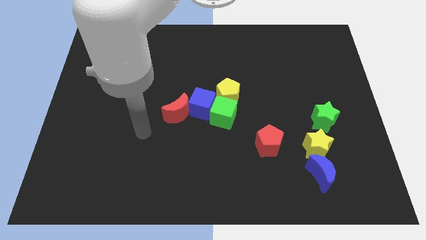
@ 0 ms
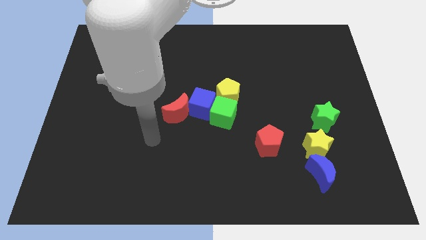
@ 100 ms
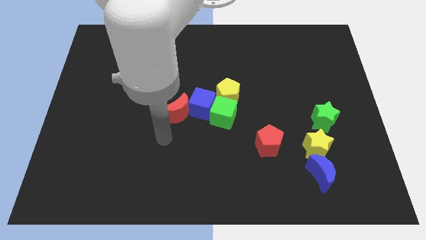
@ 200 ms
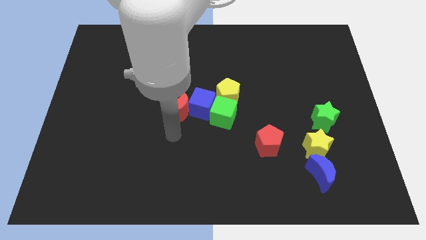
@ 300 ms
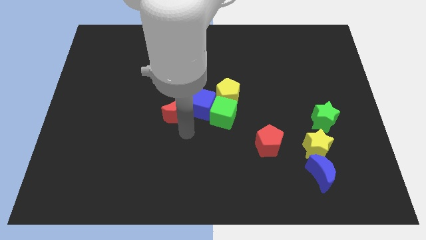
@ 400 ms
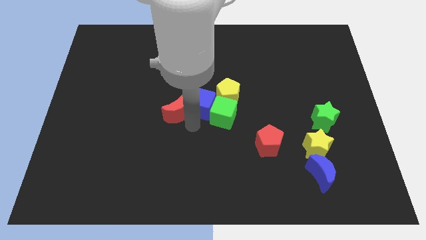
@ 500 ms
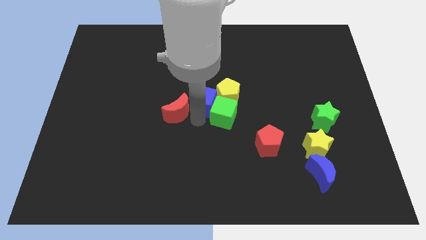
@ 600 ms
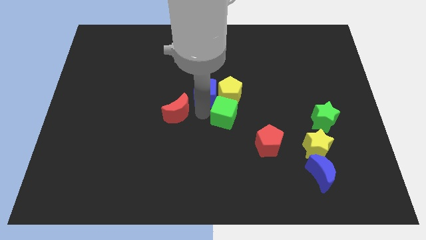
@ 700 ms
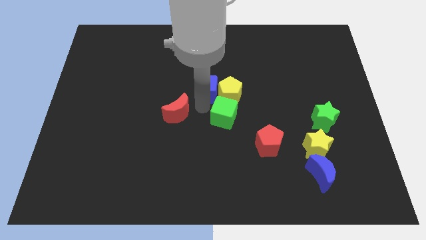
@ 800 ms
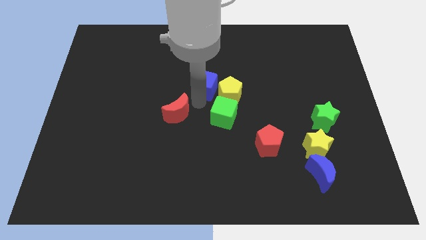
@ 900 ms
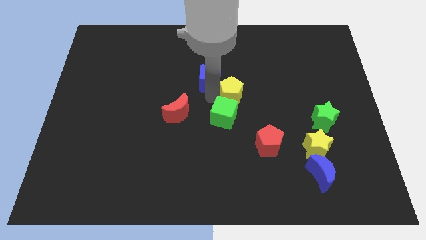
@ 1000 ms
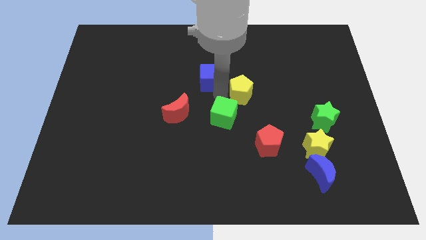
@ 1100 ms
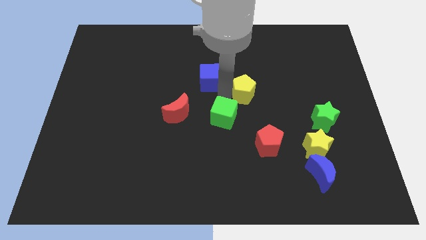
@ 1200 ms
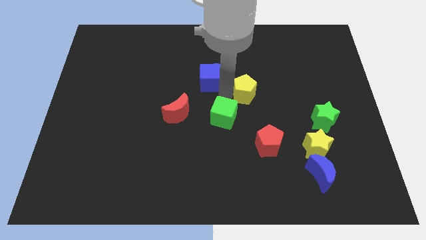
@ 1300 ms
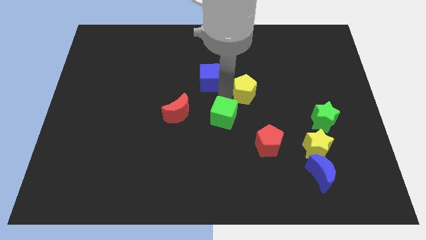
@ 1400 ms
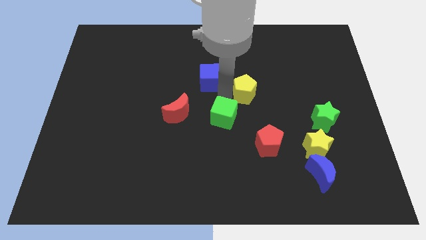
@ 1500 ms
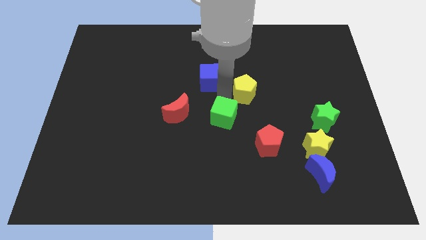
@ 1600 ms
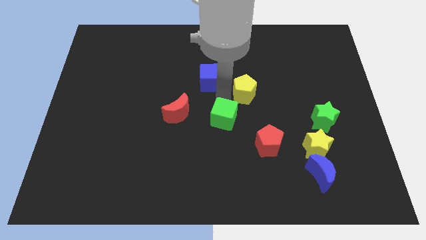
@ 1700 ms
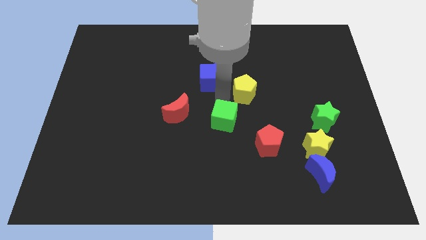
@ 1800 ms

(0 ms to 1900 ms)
separate the green cube from the blue cube and yellow pentagon

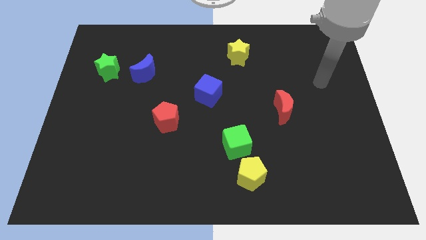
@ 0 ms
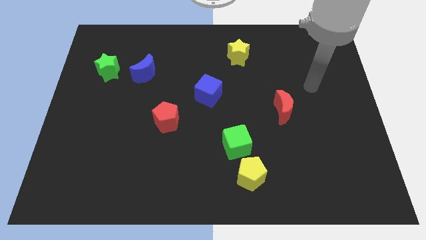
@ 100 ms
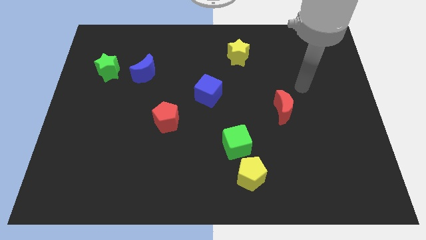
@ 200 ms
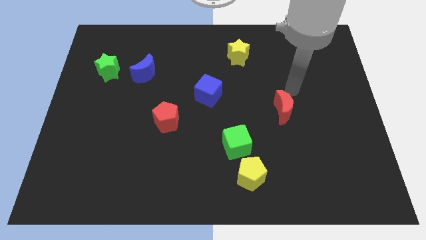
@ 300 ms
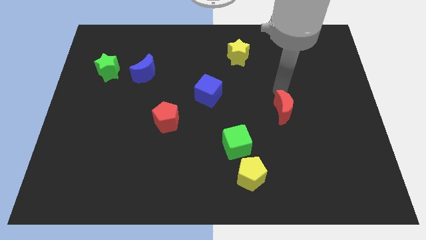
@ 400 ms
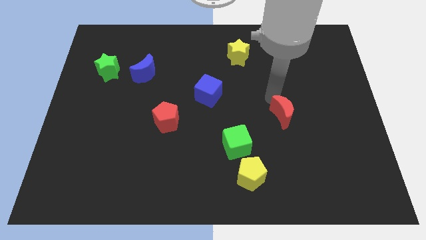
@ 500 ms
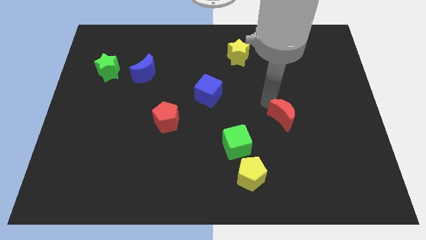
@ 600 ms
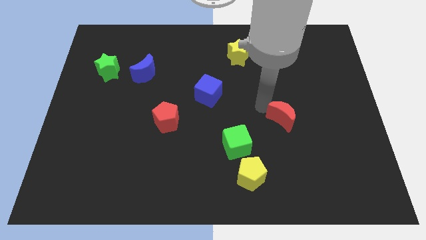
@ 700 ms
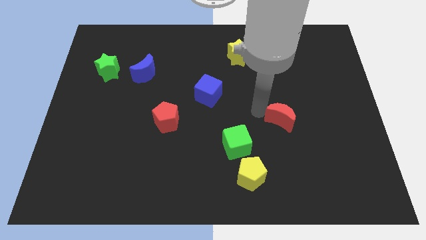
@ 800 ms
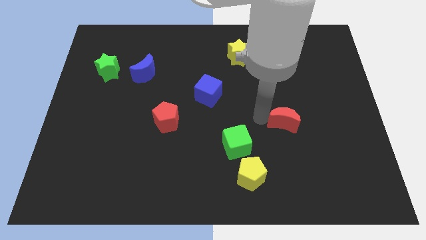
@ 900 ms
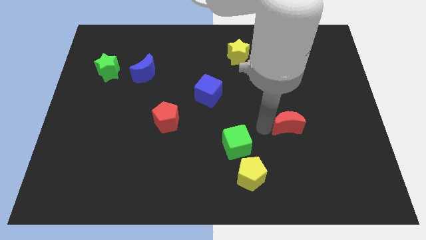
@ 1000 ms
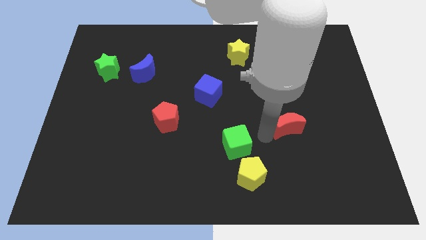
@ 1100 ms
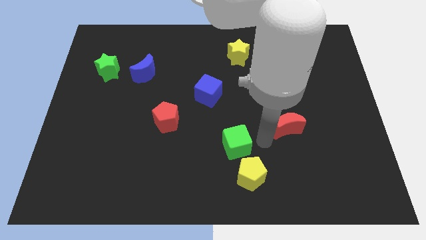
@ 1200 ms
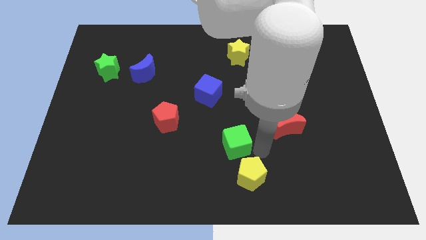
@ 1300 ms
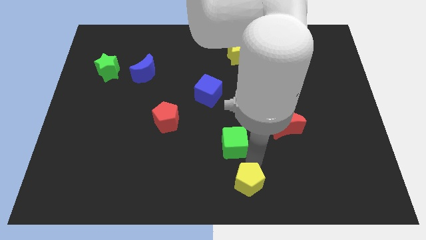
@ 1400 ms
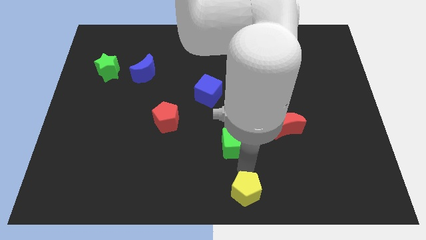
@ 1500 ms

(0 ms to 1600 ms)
pull the green cube apart from the yellow pentagon

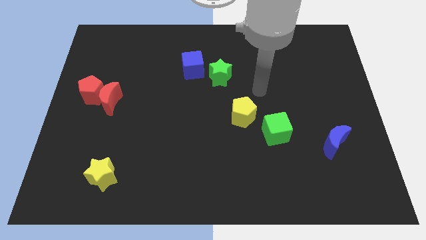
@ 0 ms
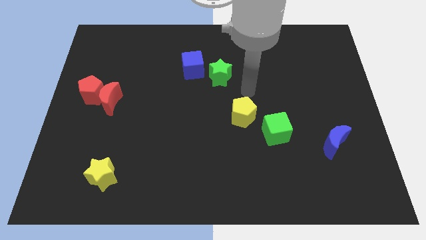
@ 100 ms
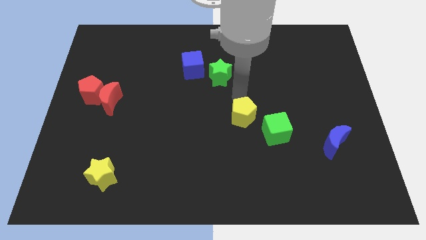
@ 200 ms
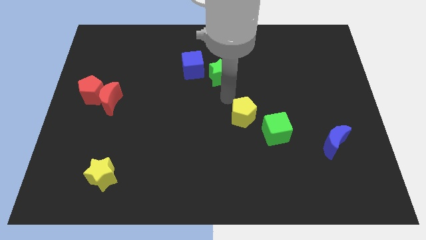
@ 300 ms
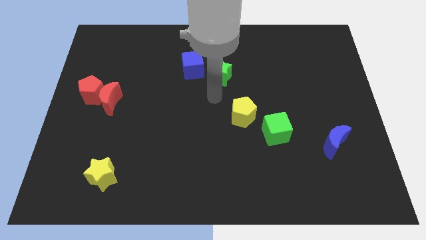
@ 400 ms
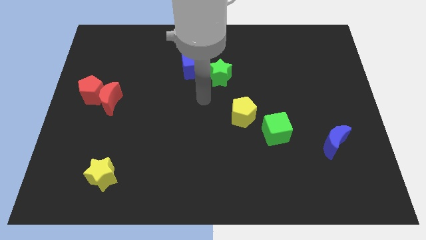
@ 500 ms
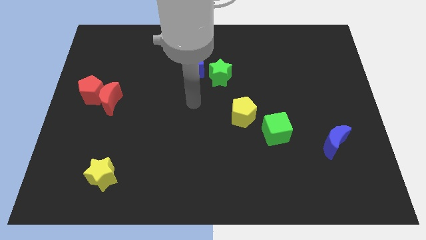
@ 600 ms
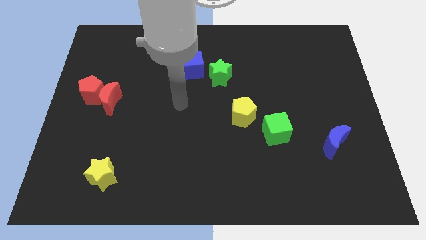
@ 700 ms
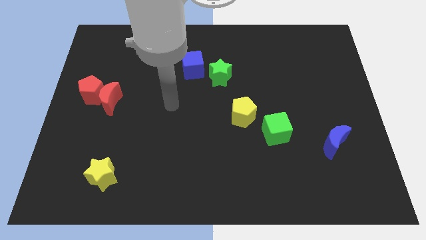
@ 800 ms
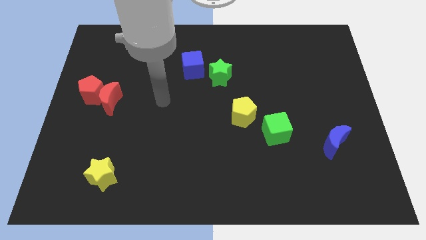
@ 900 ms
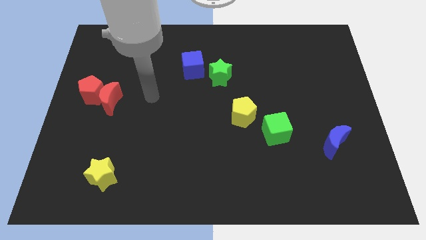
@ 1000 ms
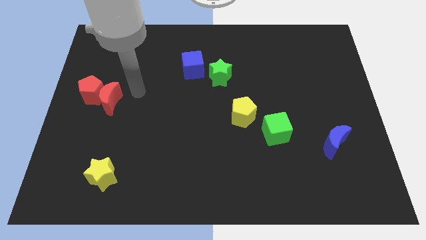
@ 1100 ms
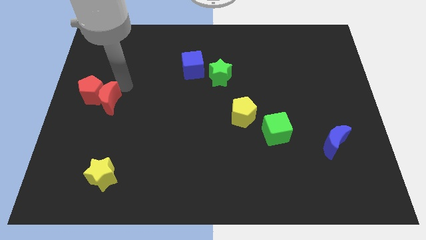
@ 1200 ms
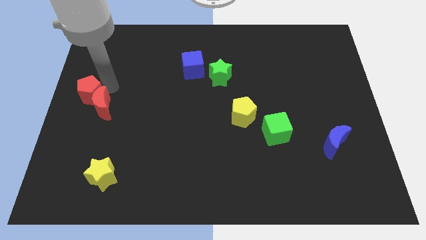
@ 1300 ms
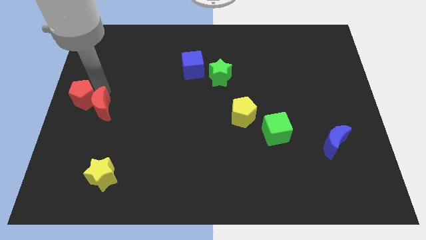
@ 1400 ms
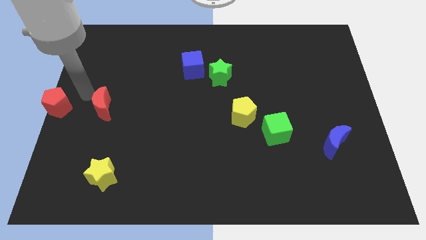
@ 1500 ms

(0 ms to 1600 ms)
pull the red moon apart from the red pentagon

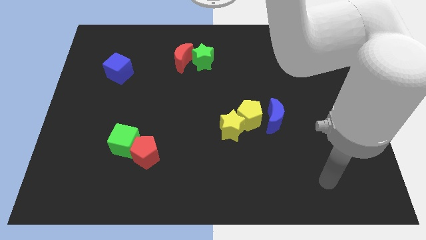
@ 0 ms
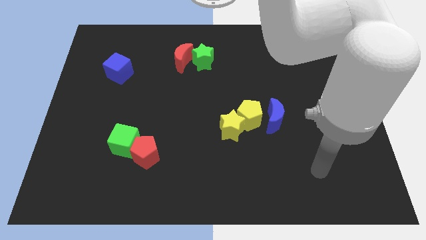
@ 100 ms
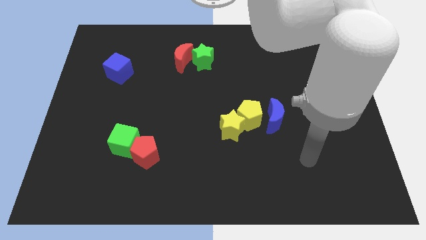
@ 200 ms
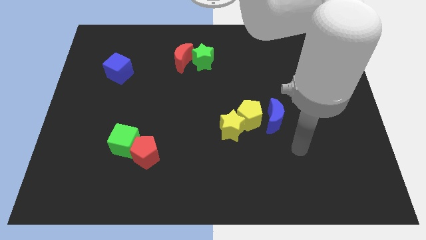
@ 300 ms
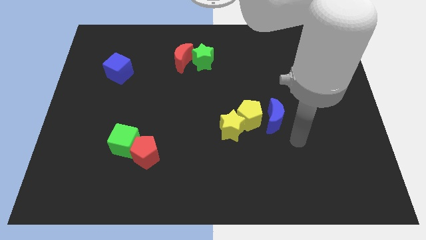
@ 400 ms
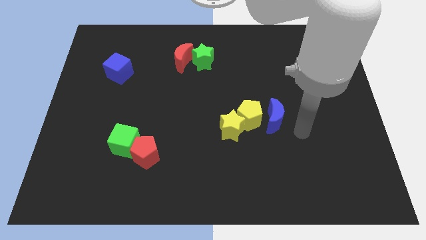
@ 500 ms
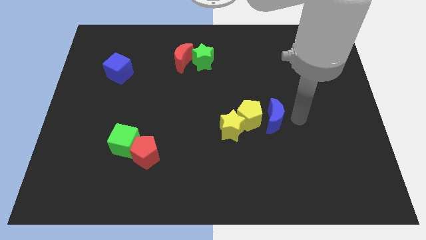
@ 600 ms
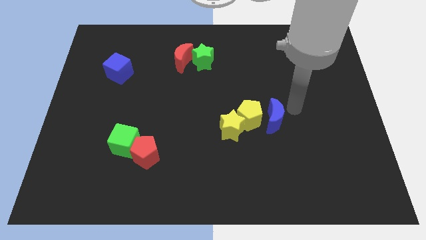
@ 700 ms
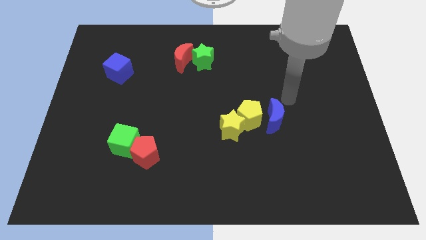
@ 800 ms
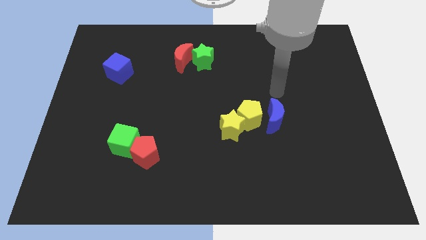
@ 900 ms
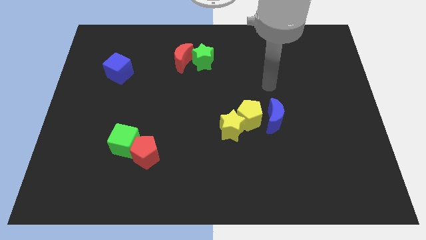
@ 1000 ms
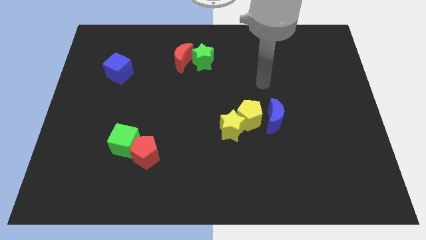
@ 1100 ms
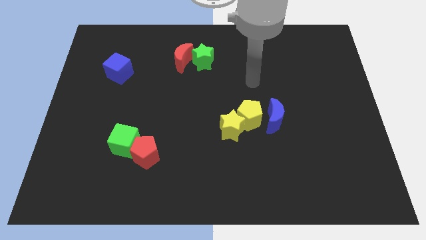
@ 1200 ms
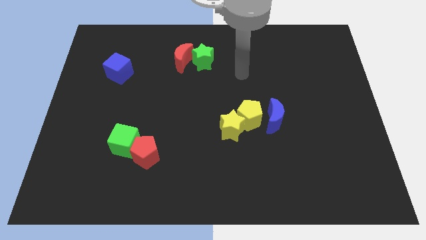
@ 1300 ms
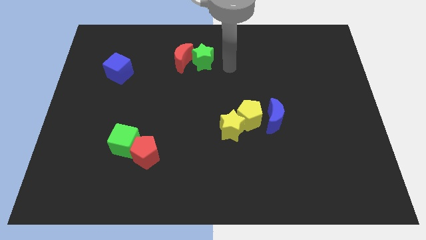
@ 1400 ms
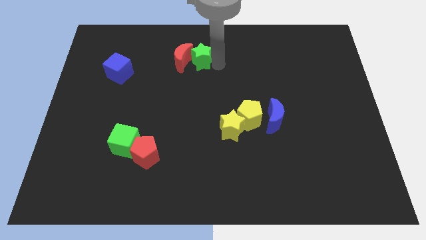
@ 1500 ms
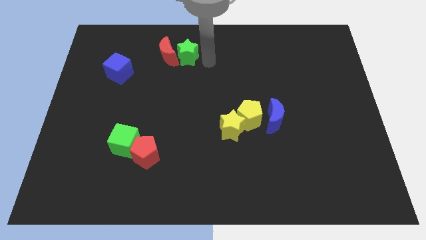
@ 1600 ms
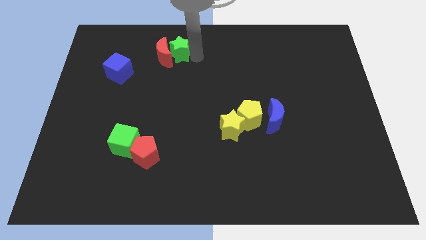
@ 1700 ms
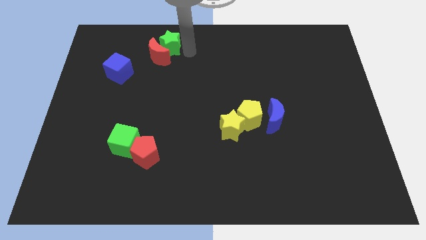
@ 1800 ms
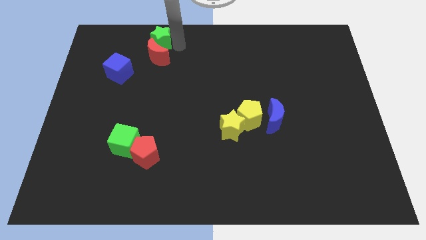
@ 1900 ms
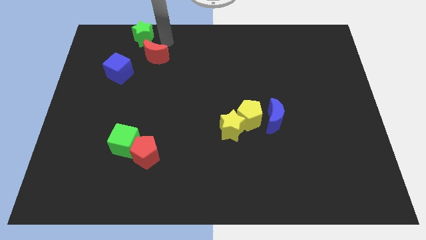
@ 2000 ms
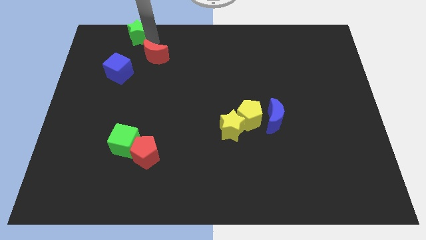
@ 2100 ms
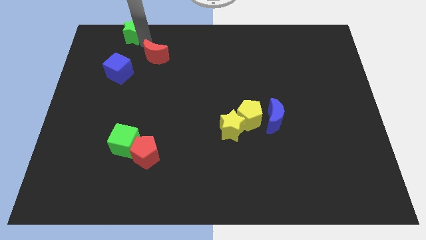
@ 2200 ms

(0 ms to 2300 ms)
separate the red moon from the green star

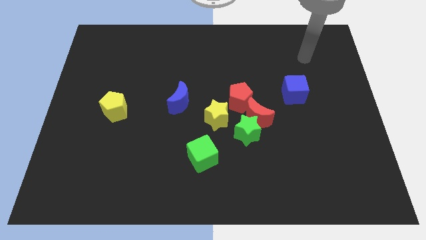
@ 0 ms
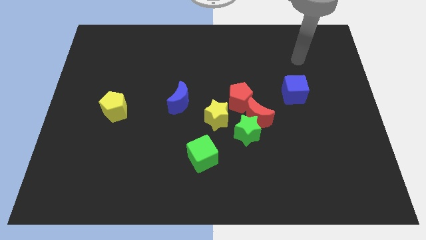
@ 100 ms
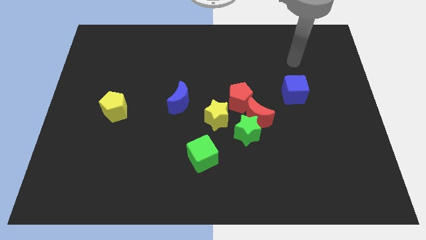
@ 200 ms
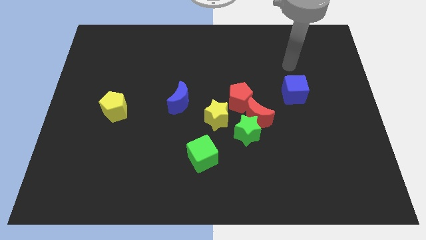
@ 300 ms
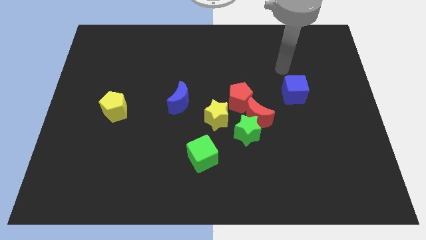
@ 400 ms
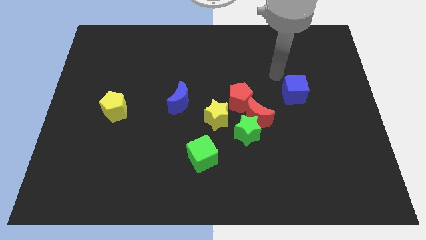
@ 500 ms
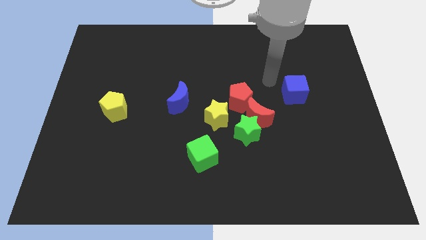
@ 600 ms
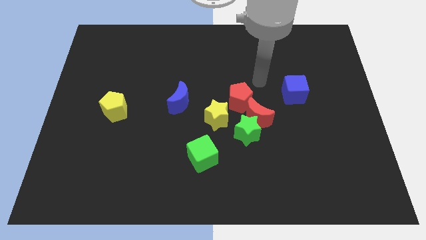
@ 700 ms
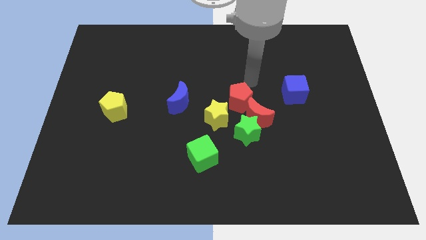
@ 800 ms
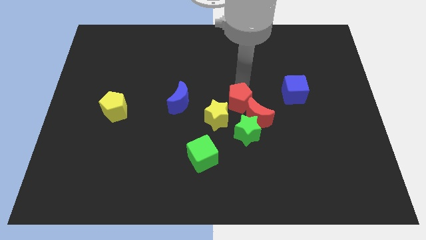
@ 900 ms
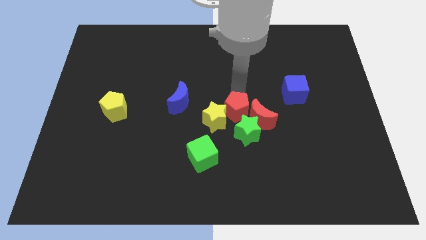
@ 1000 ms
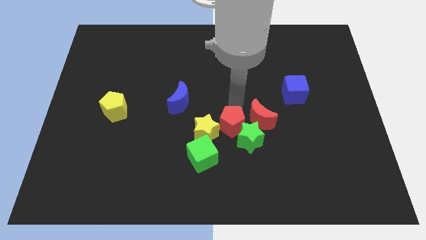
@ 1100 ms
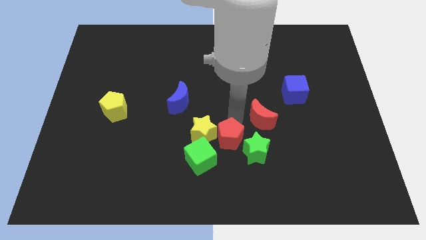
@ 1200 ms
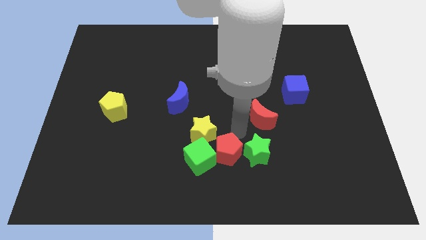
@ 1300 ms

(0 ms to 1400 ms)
move the red moon away from the green star, red pentagon, and yellow star

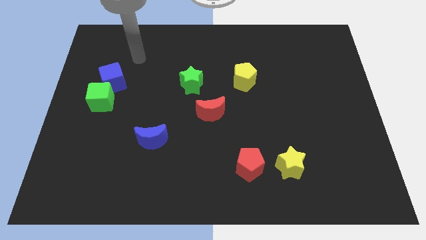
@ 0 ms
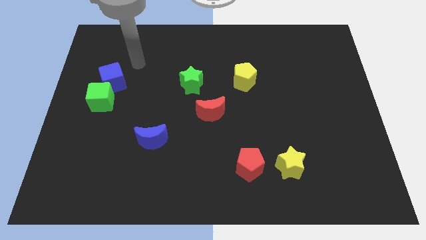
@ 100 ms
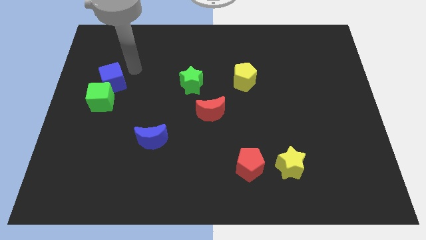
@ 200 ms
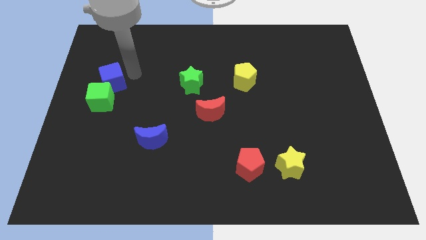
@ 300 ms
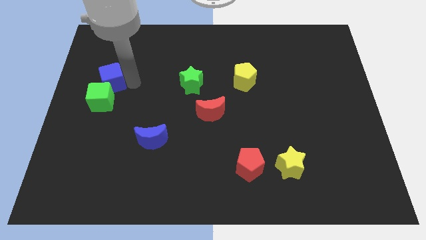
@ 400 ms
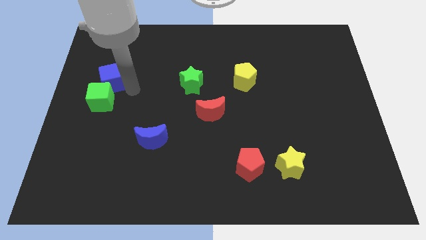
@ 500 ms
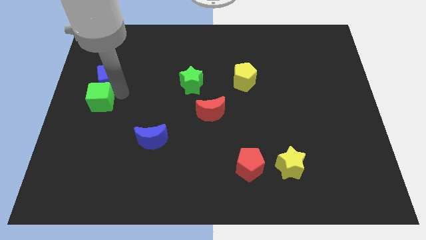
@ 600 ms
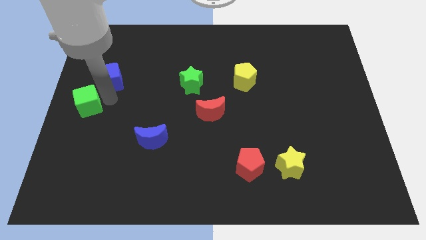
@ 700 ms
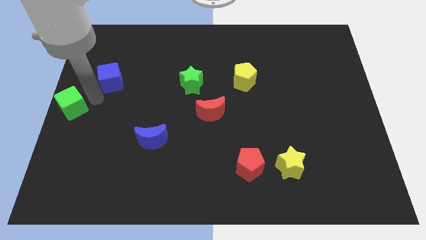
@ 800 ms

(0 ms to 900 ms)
separate the blue cube from the green cube
